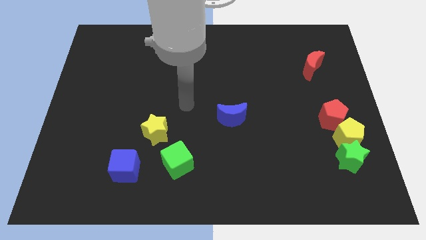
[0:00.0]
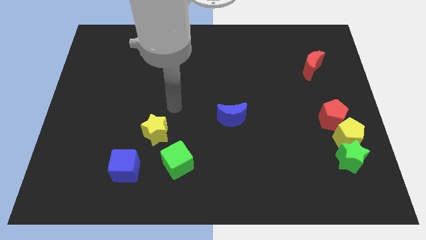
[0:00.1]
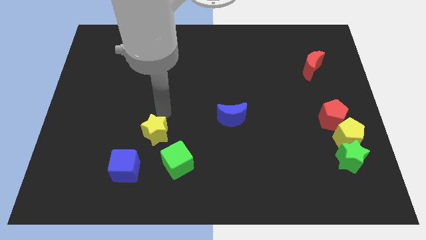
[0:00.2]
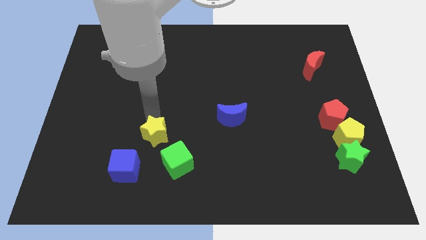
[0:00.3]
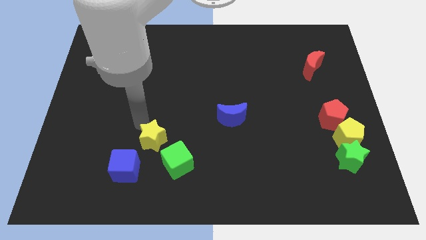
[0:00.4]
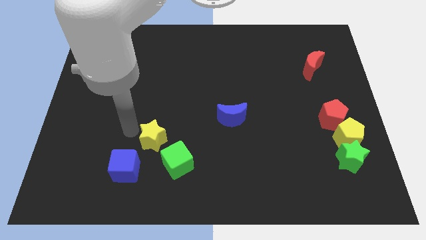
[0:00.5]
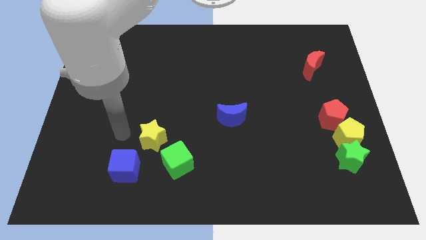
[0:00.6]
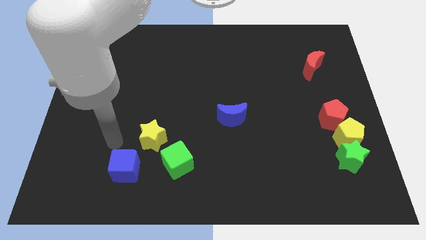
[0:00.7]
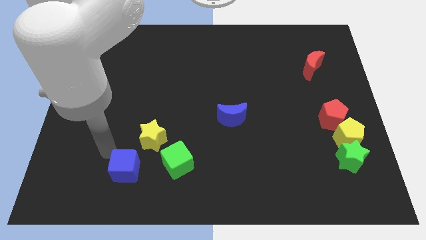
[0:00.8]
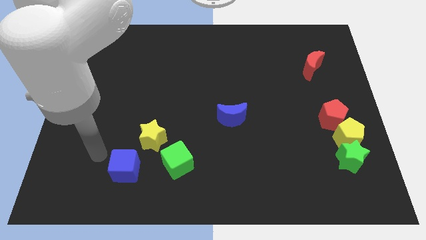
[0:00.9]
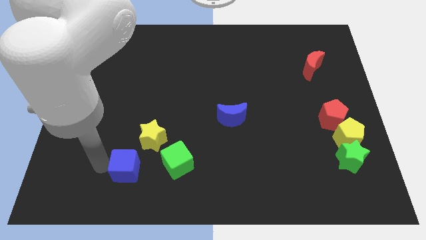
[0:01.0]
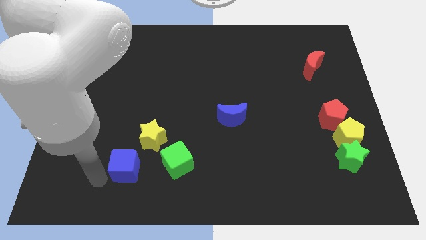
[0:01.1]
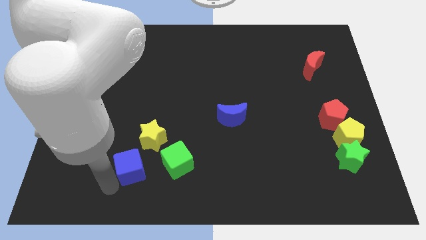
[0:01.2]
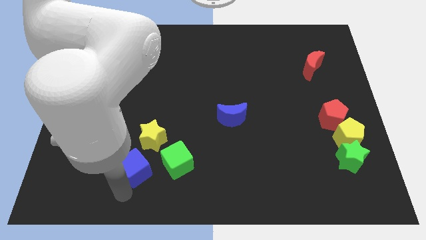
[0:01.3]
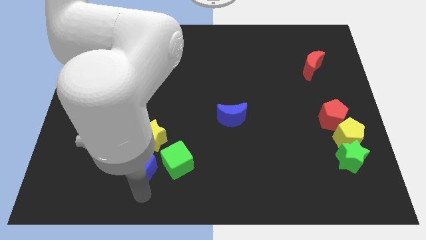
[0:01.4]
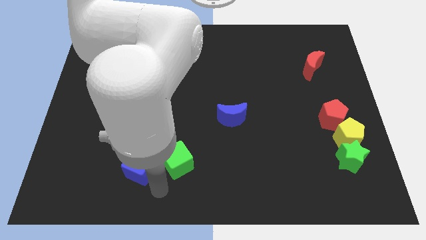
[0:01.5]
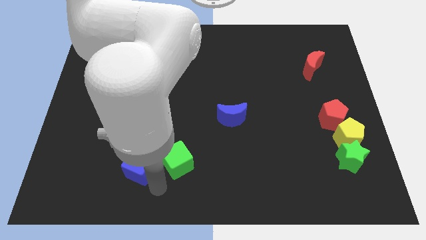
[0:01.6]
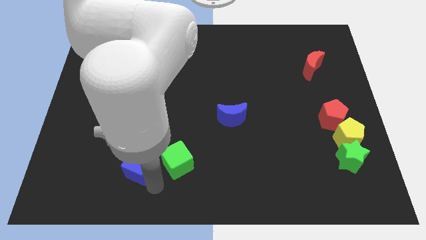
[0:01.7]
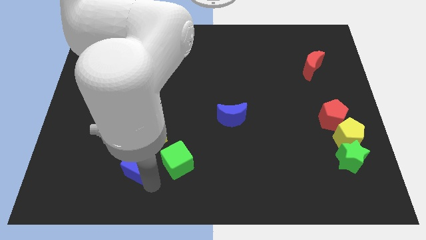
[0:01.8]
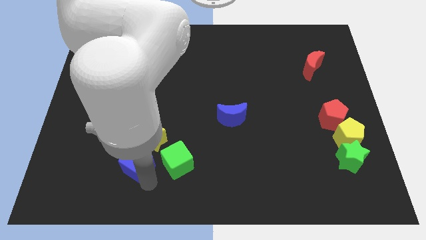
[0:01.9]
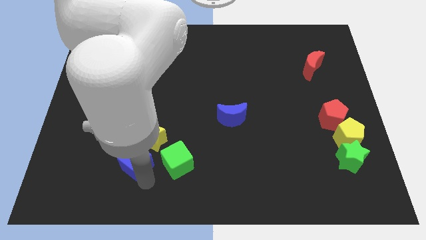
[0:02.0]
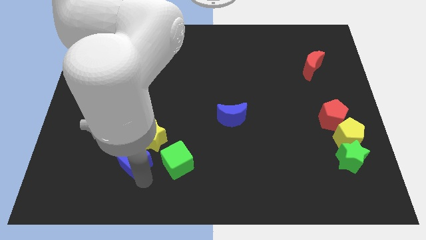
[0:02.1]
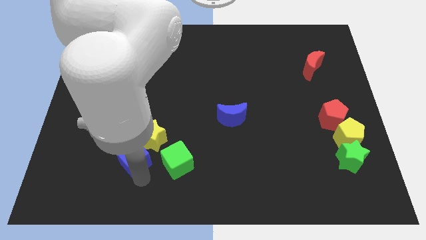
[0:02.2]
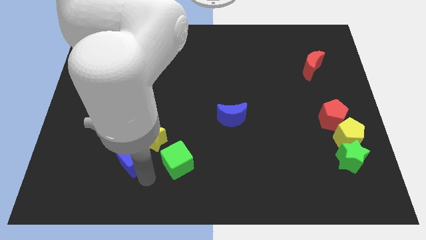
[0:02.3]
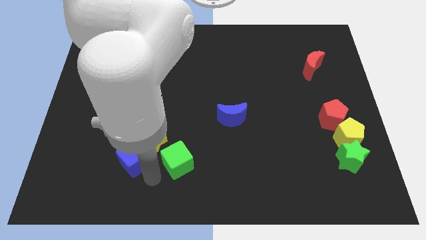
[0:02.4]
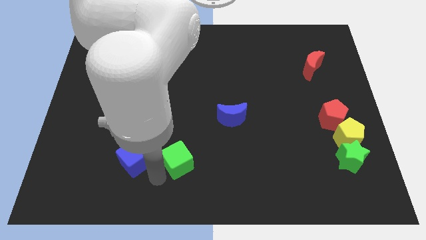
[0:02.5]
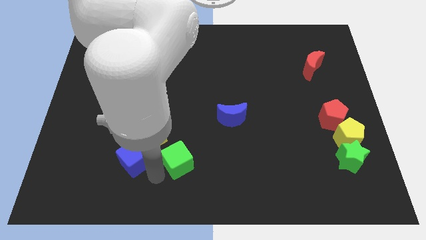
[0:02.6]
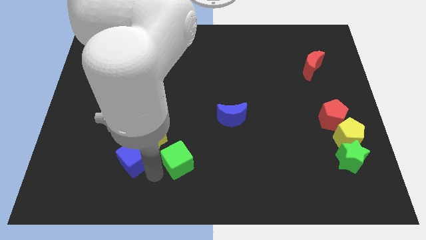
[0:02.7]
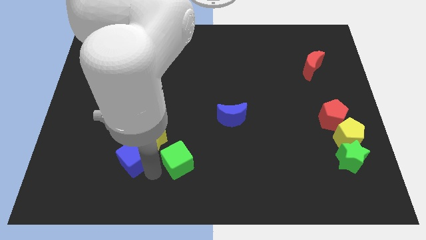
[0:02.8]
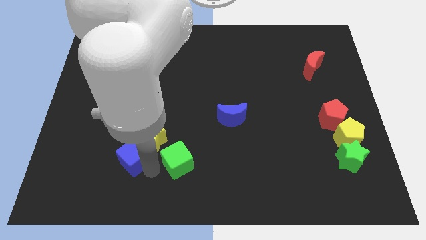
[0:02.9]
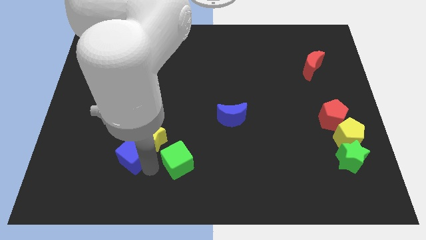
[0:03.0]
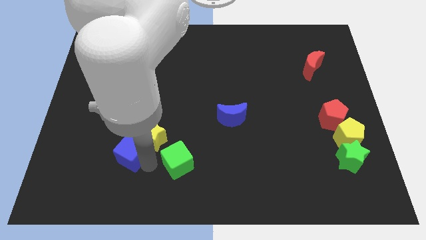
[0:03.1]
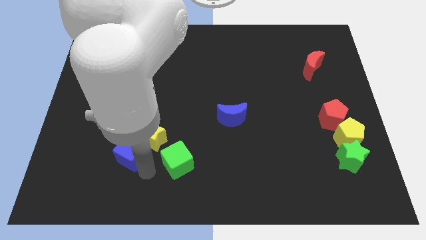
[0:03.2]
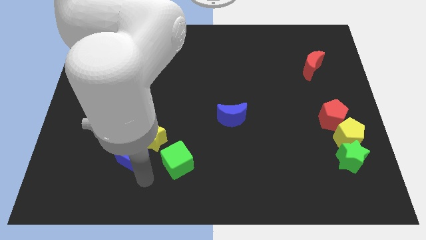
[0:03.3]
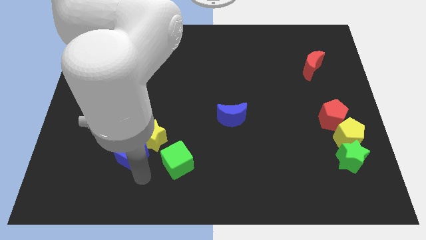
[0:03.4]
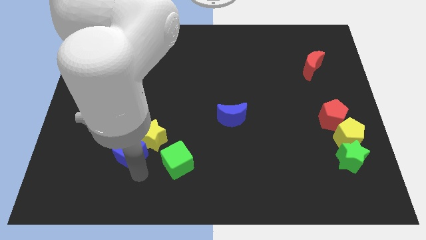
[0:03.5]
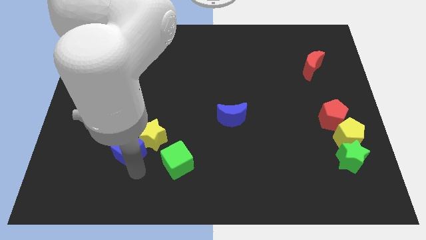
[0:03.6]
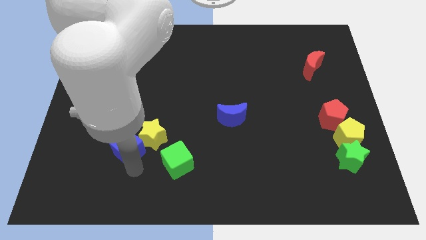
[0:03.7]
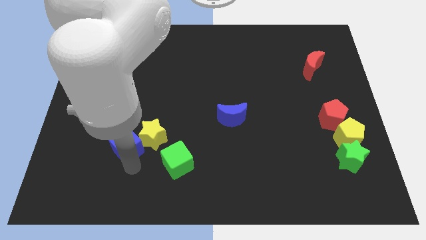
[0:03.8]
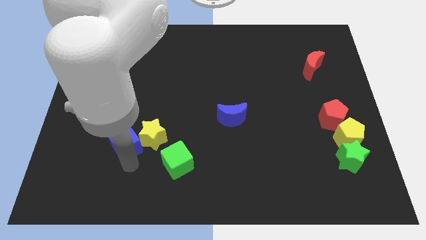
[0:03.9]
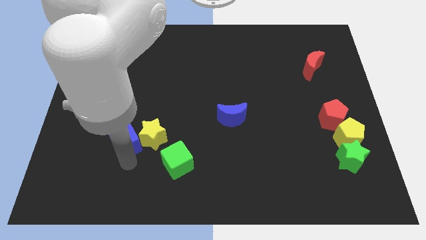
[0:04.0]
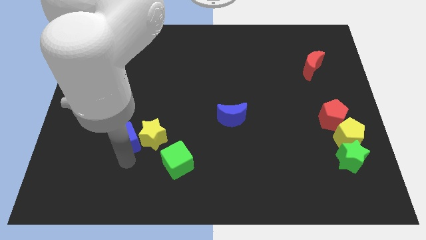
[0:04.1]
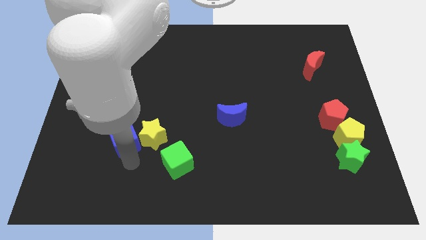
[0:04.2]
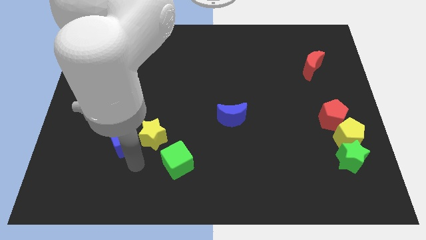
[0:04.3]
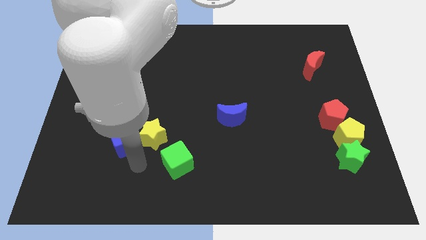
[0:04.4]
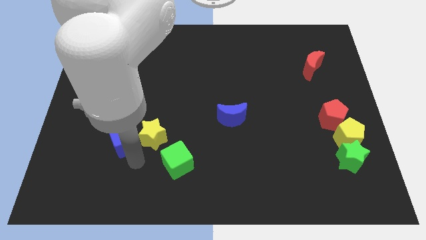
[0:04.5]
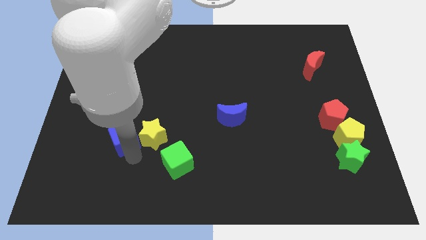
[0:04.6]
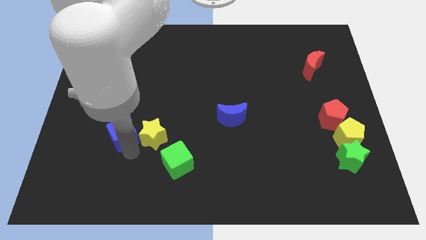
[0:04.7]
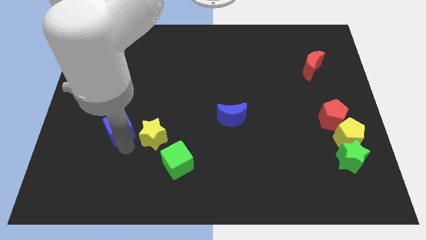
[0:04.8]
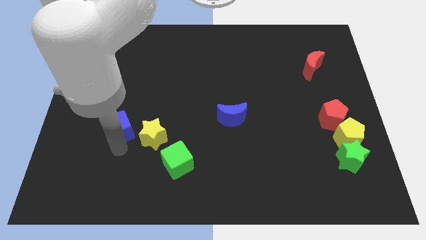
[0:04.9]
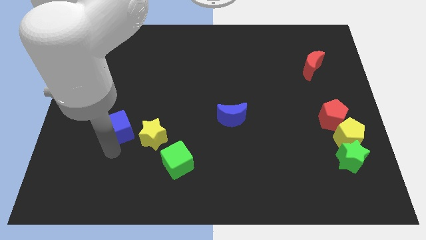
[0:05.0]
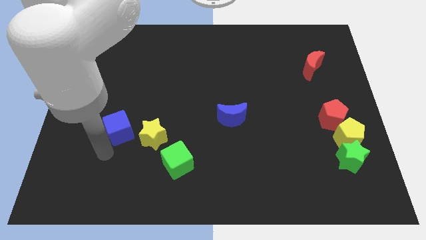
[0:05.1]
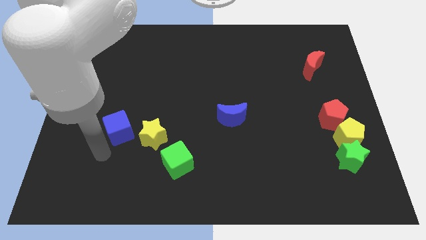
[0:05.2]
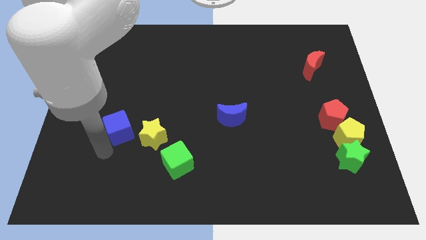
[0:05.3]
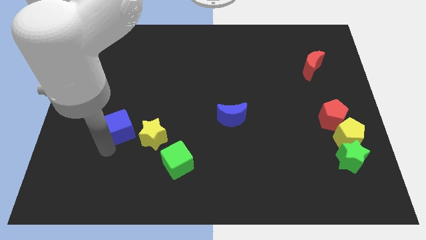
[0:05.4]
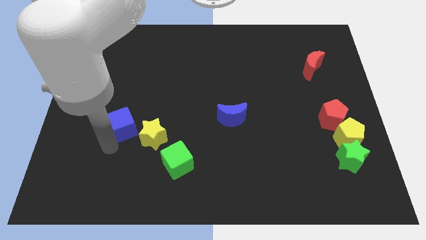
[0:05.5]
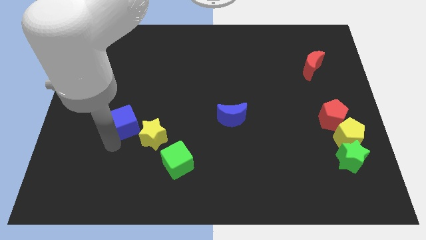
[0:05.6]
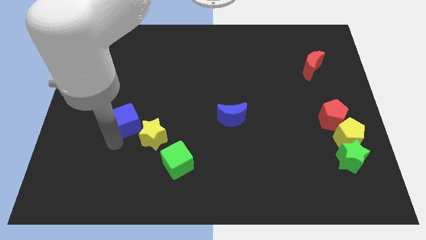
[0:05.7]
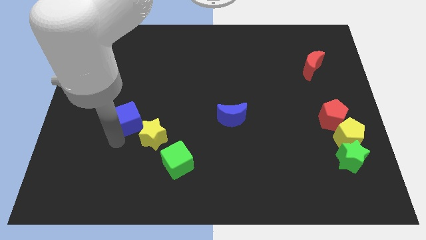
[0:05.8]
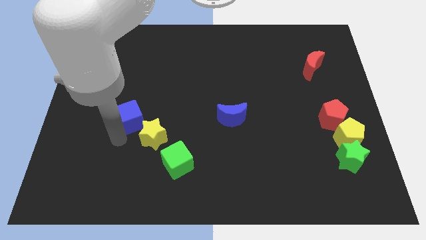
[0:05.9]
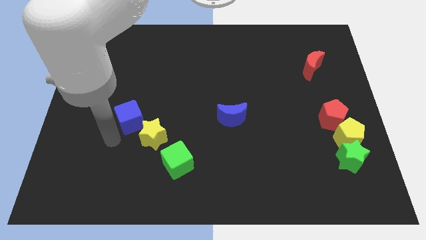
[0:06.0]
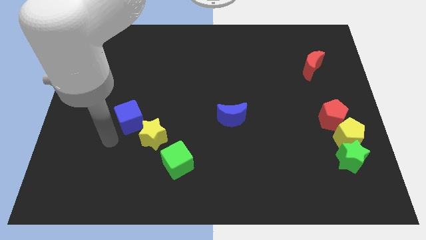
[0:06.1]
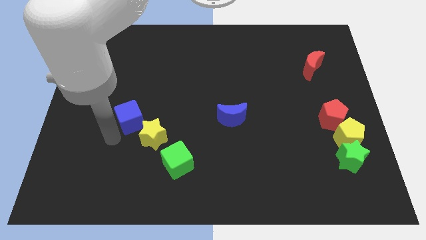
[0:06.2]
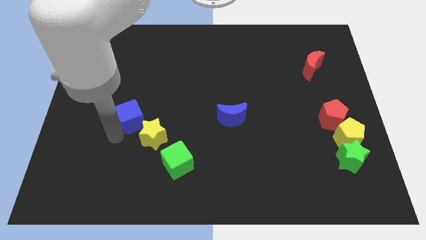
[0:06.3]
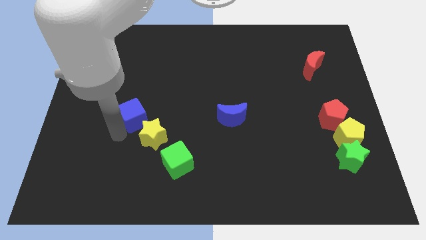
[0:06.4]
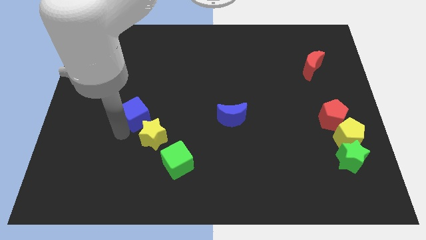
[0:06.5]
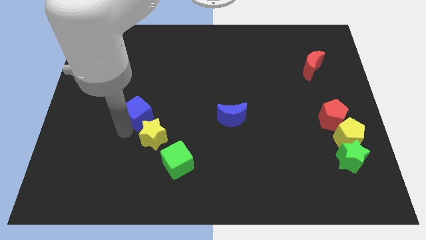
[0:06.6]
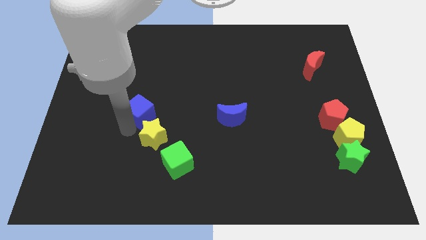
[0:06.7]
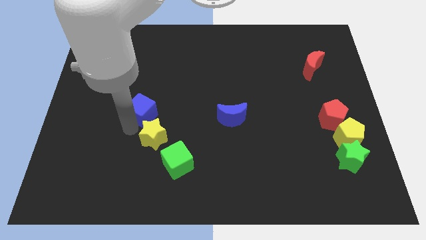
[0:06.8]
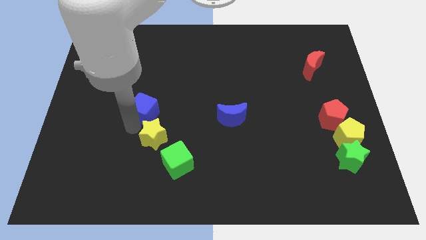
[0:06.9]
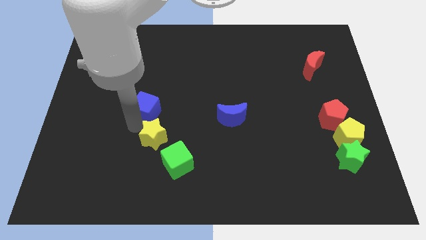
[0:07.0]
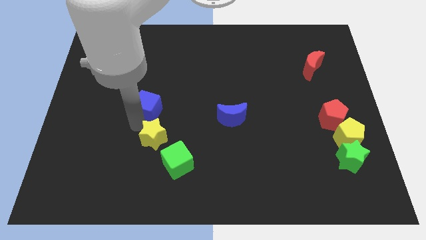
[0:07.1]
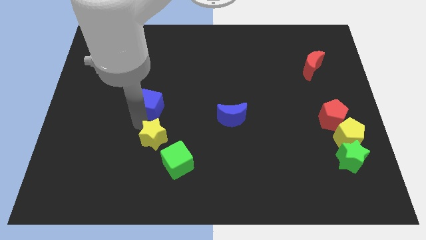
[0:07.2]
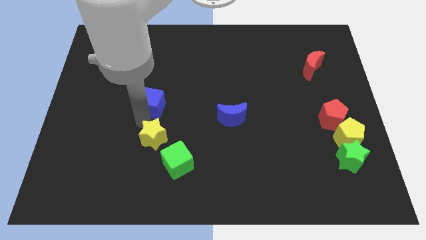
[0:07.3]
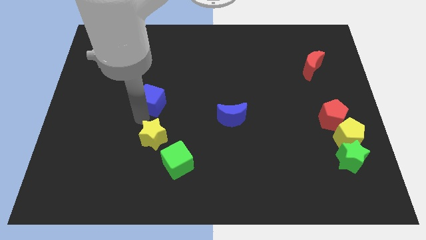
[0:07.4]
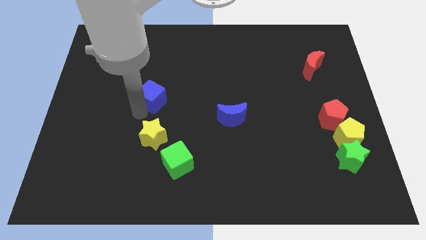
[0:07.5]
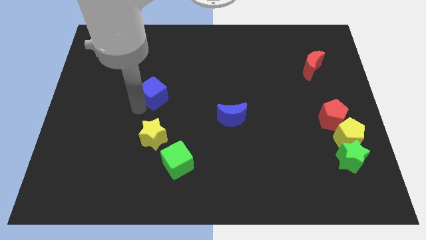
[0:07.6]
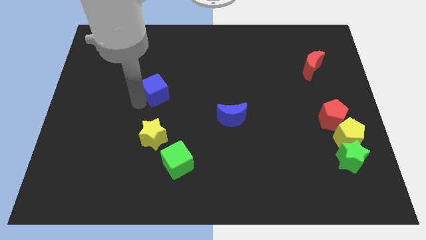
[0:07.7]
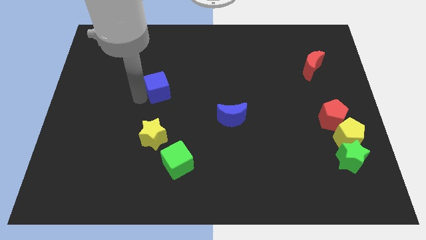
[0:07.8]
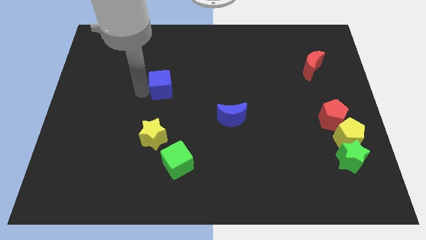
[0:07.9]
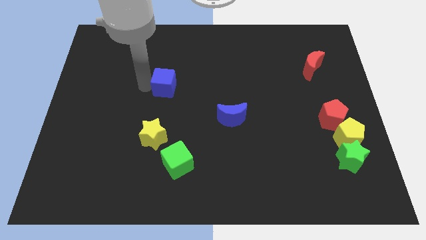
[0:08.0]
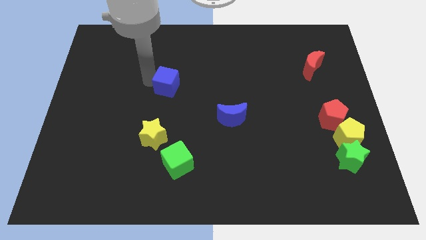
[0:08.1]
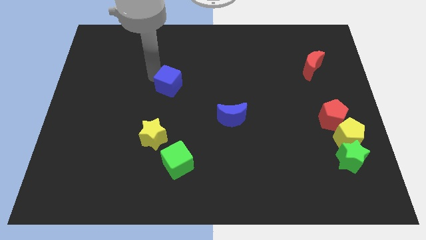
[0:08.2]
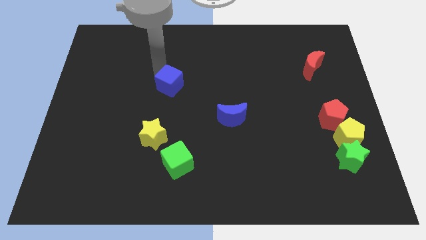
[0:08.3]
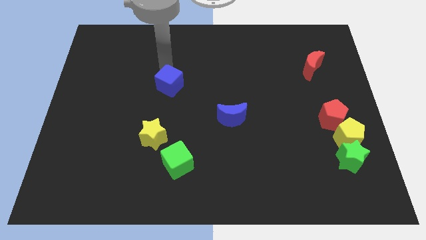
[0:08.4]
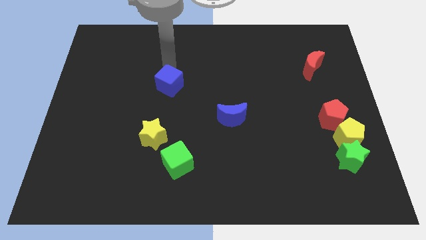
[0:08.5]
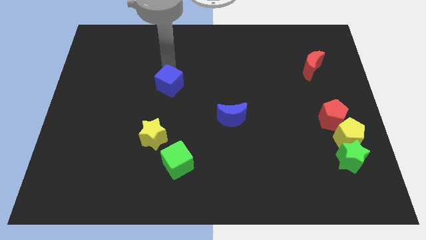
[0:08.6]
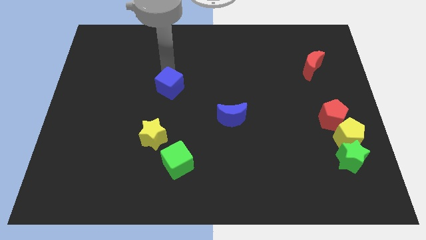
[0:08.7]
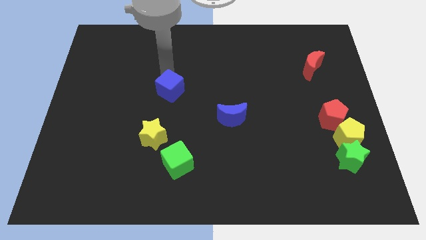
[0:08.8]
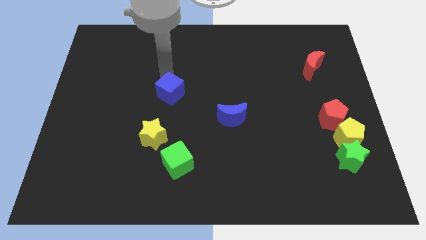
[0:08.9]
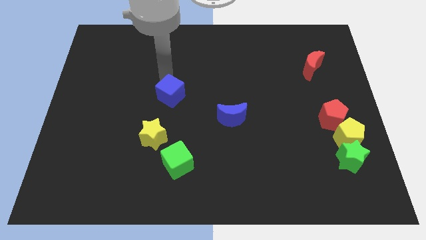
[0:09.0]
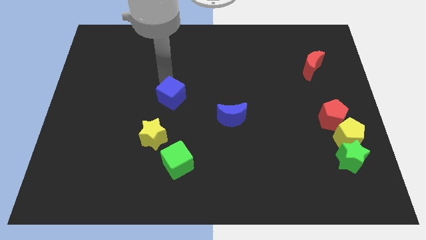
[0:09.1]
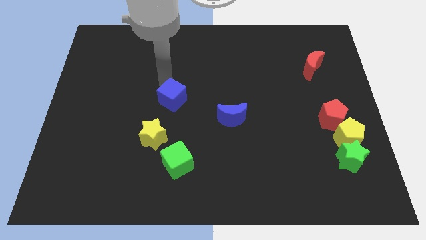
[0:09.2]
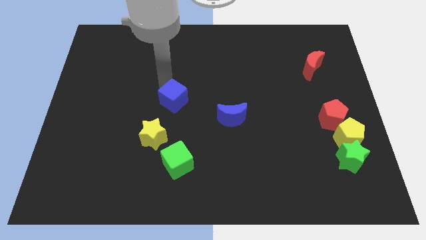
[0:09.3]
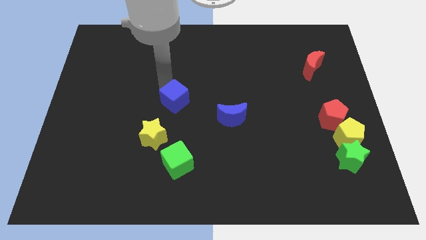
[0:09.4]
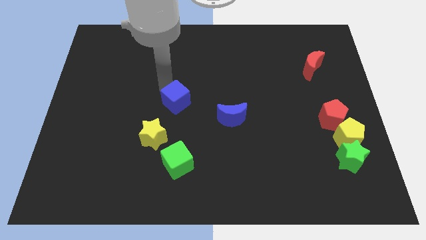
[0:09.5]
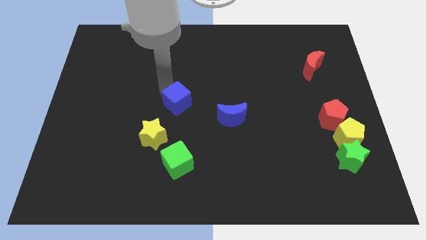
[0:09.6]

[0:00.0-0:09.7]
slide the blue cube just left of the blue moon
